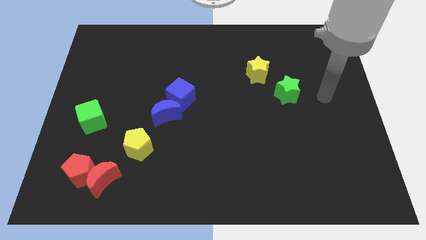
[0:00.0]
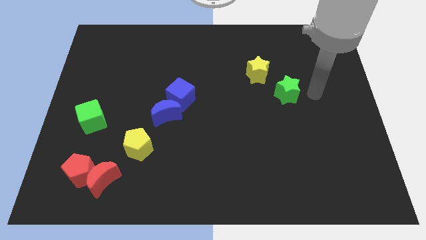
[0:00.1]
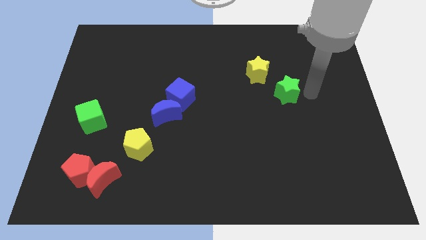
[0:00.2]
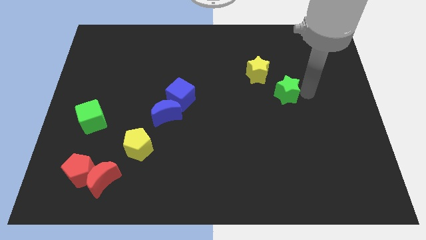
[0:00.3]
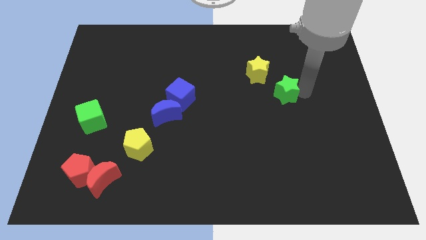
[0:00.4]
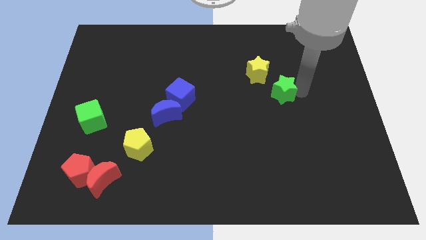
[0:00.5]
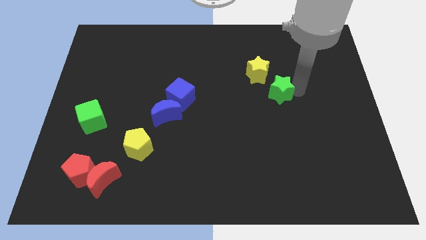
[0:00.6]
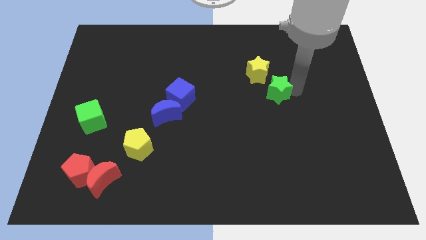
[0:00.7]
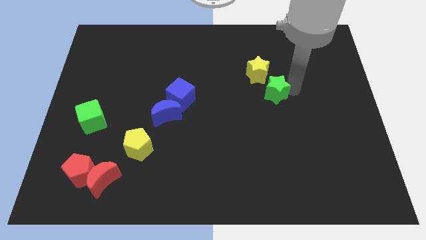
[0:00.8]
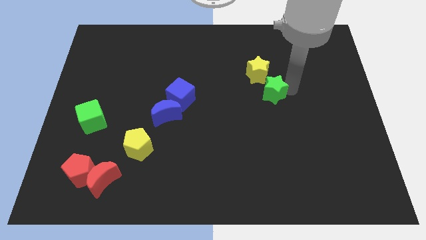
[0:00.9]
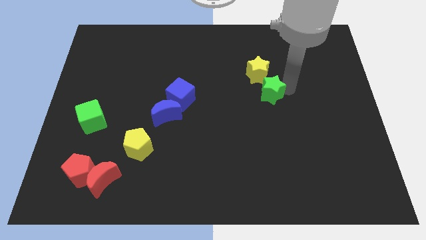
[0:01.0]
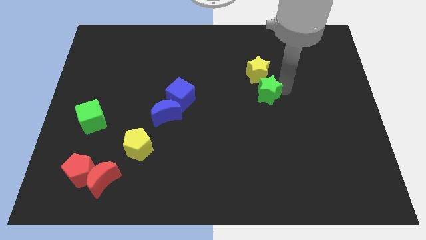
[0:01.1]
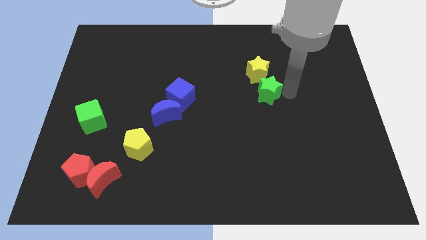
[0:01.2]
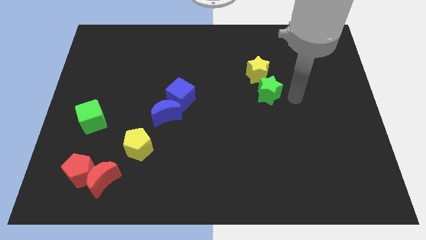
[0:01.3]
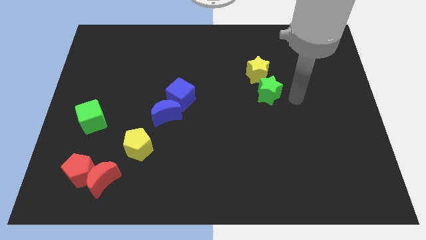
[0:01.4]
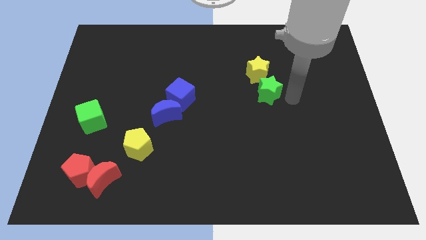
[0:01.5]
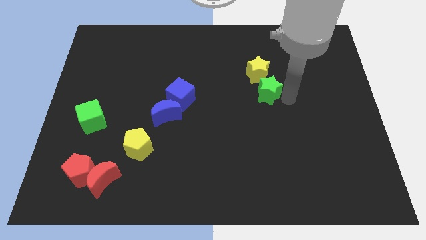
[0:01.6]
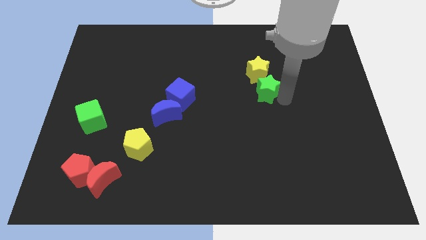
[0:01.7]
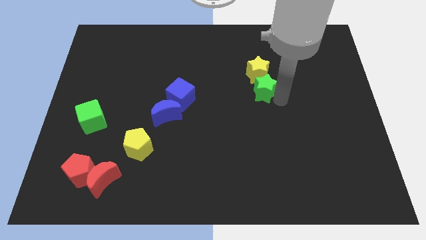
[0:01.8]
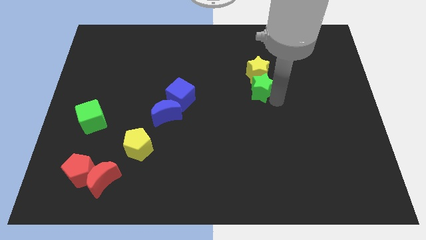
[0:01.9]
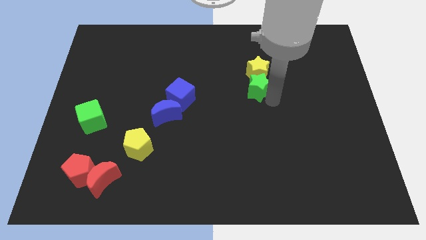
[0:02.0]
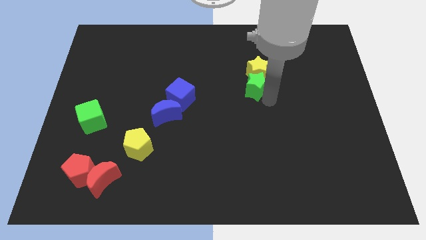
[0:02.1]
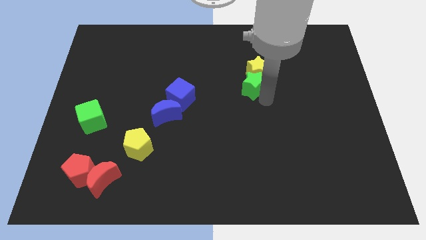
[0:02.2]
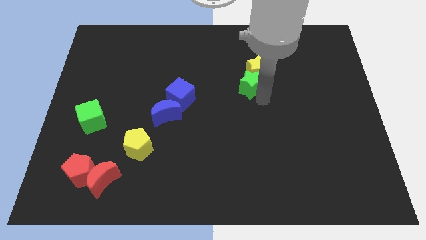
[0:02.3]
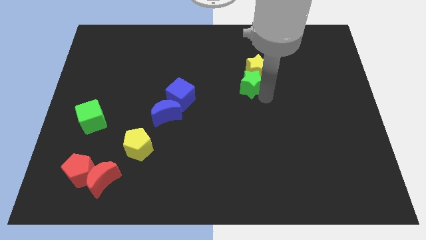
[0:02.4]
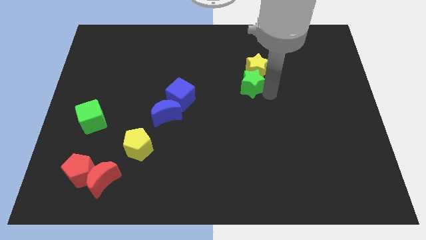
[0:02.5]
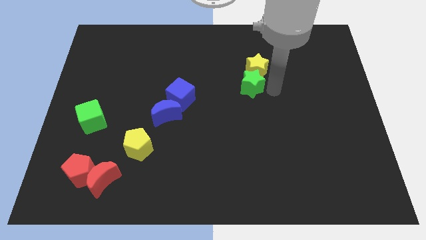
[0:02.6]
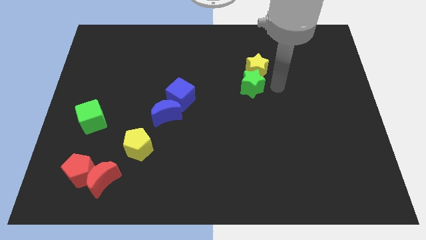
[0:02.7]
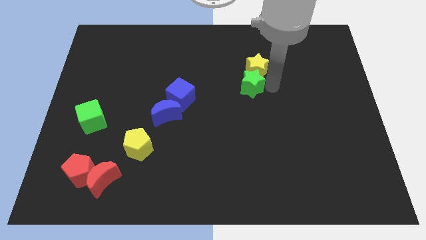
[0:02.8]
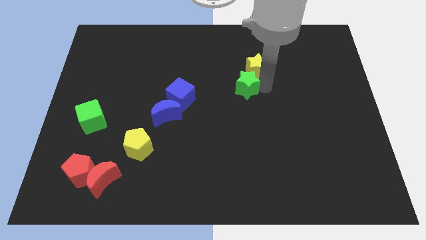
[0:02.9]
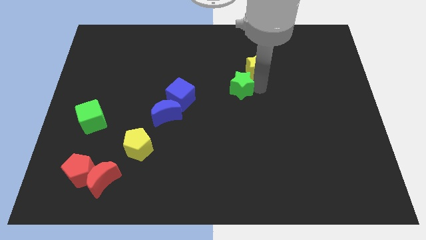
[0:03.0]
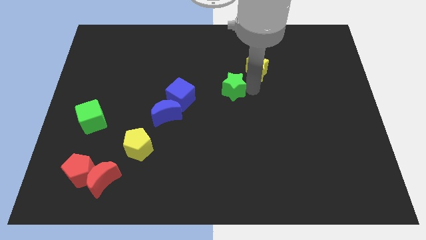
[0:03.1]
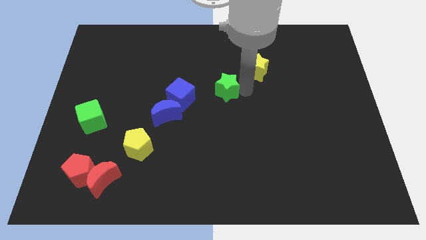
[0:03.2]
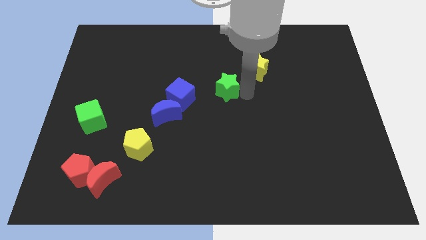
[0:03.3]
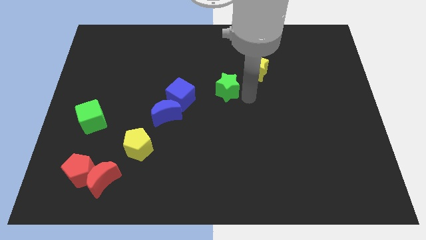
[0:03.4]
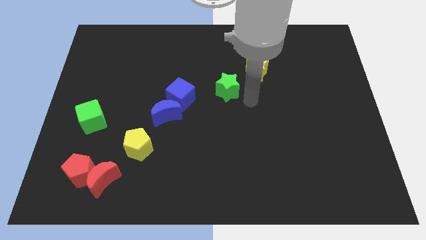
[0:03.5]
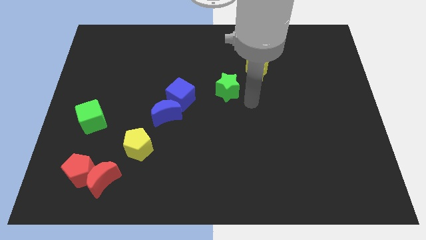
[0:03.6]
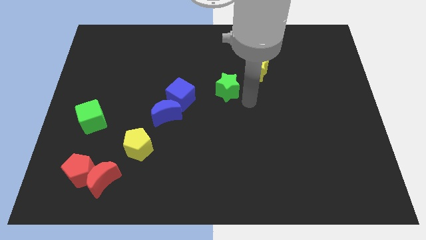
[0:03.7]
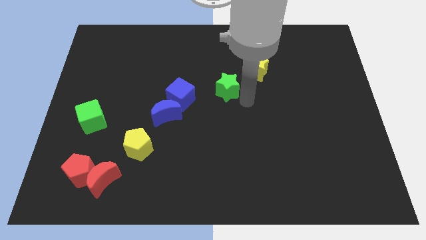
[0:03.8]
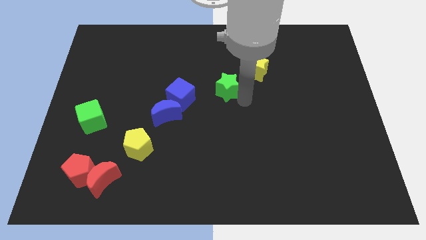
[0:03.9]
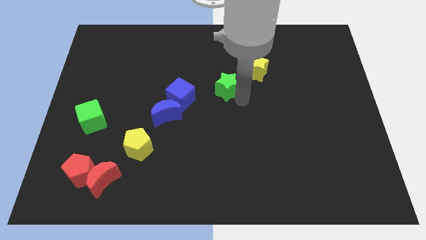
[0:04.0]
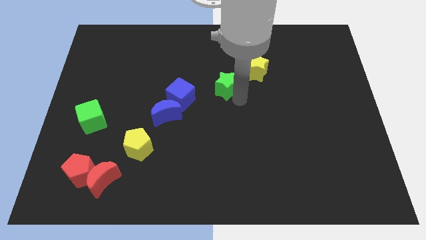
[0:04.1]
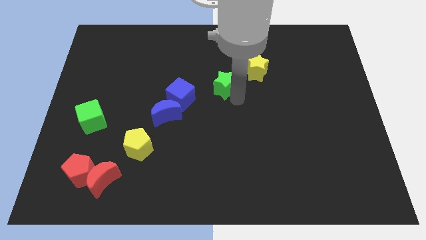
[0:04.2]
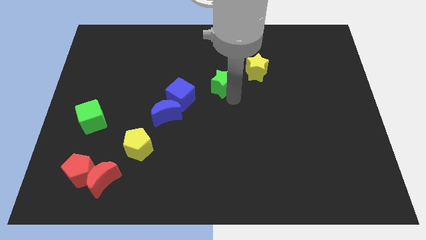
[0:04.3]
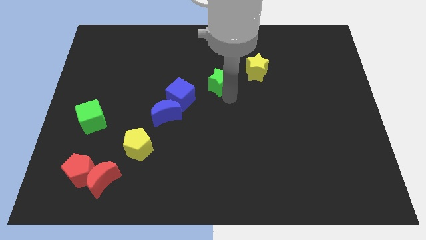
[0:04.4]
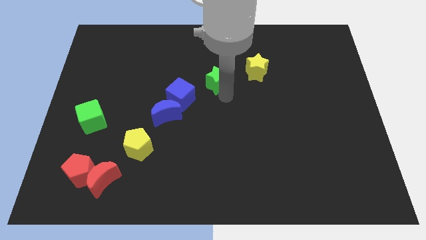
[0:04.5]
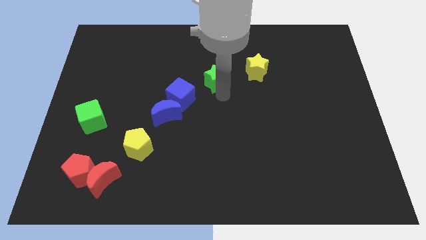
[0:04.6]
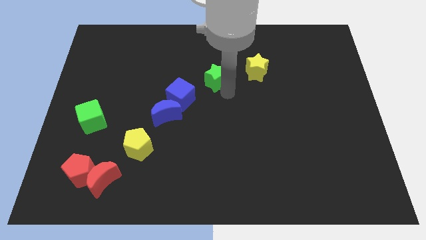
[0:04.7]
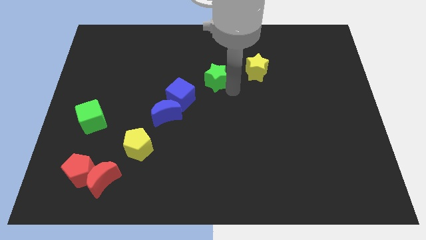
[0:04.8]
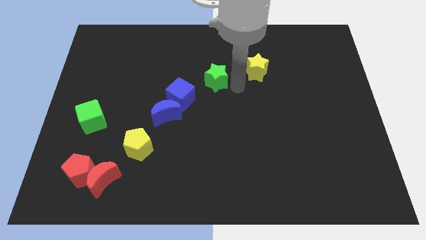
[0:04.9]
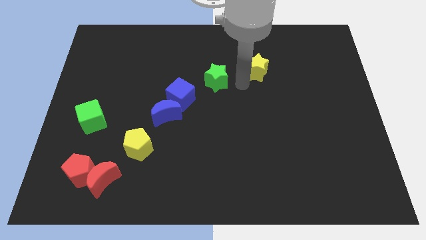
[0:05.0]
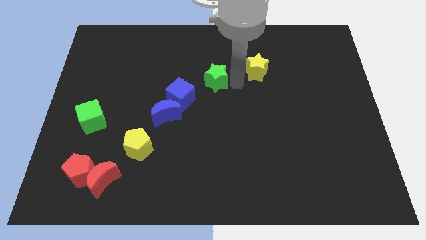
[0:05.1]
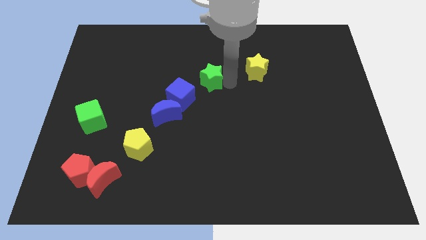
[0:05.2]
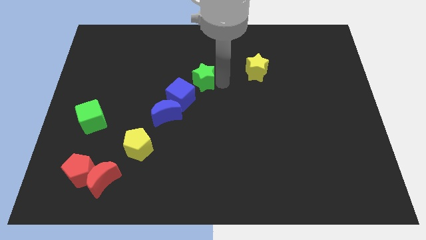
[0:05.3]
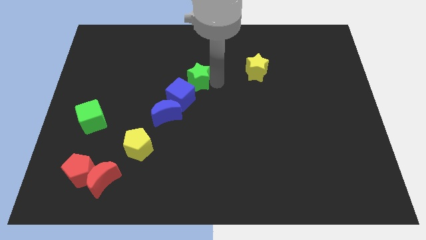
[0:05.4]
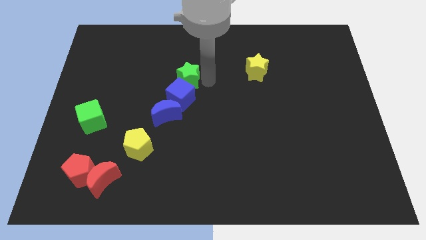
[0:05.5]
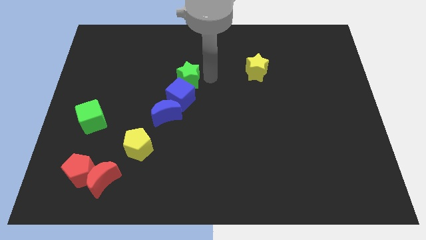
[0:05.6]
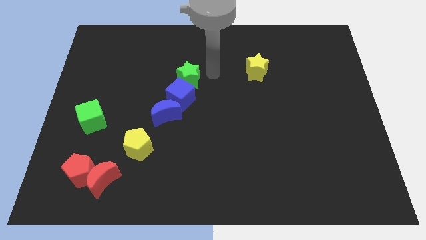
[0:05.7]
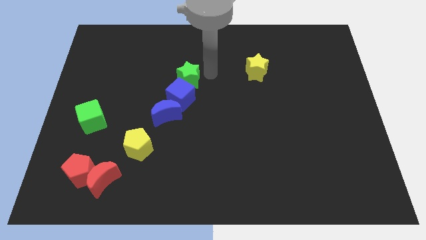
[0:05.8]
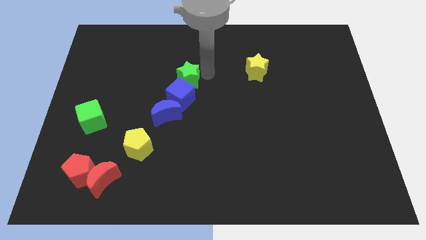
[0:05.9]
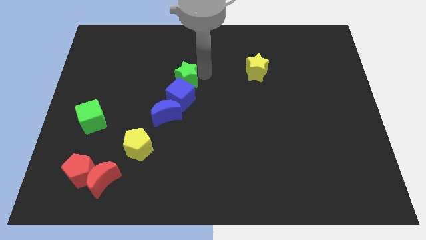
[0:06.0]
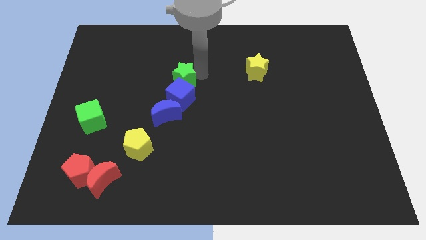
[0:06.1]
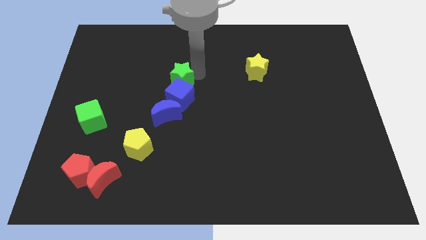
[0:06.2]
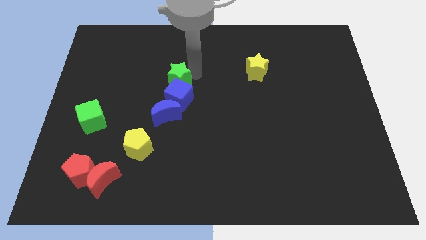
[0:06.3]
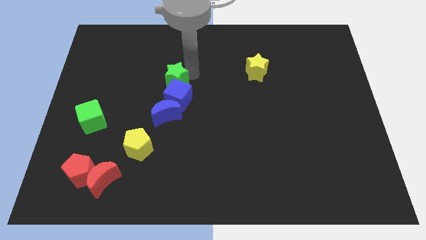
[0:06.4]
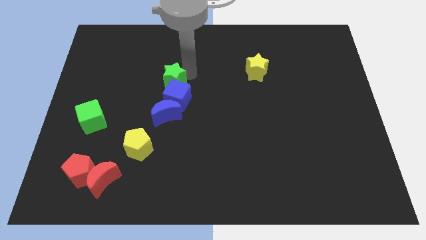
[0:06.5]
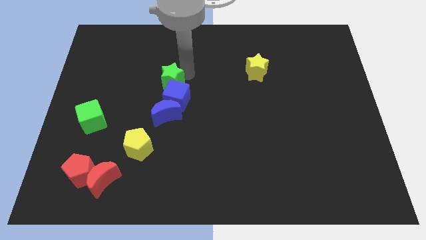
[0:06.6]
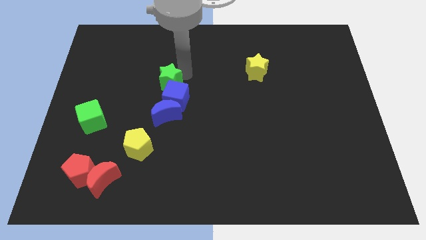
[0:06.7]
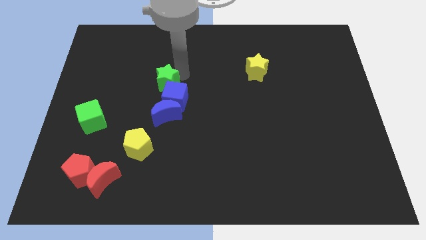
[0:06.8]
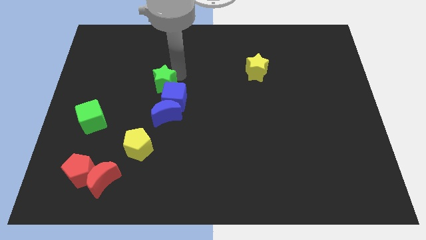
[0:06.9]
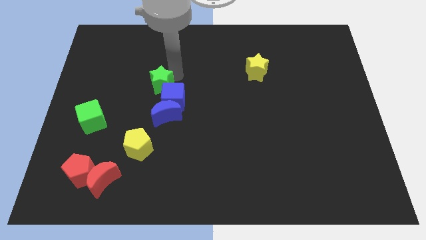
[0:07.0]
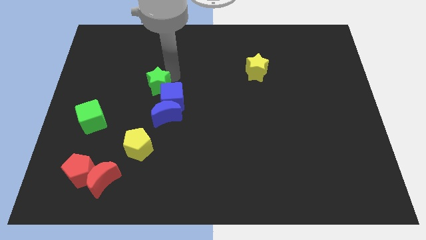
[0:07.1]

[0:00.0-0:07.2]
push the green star to the top left side of the blue moon
